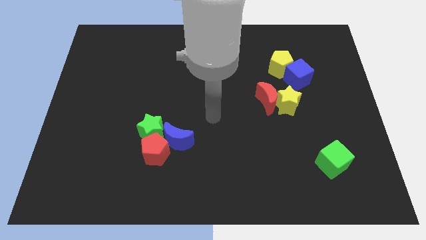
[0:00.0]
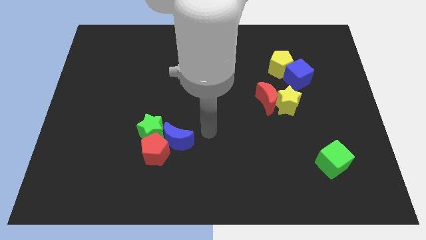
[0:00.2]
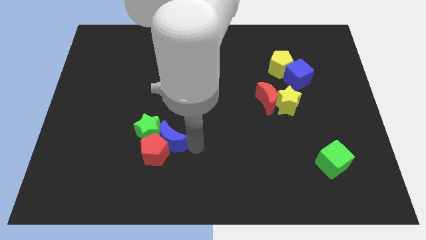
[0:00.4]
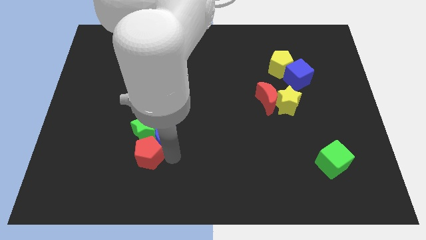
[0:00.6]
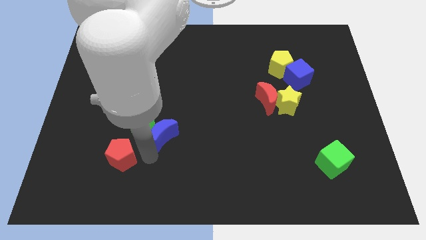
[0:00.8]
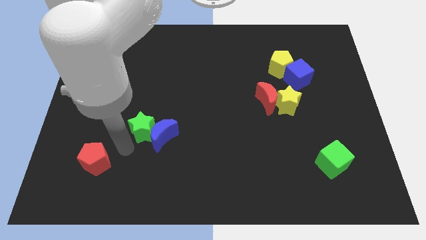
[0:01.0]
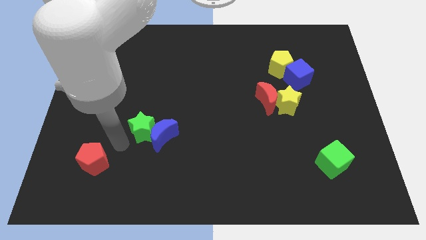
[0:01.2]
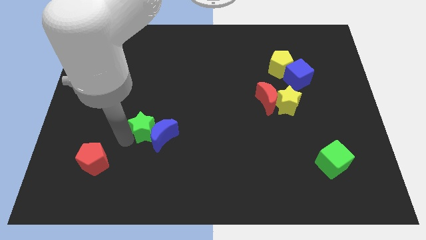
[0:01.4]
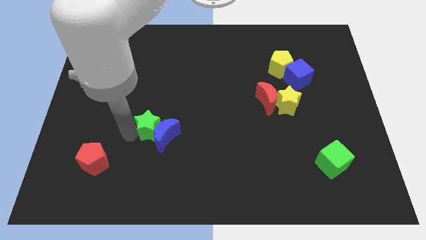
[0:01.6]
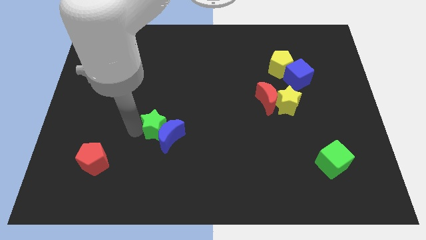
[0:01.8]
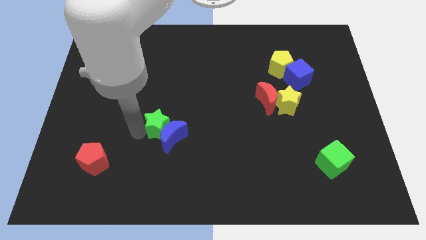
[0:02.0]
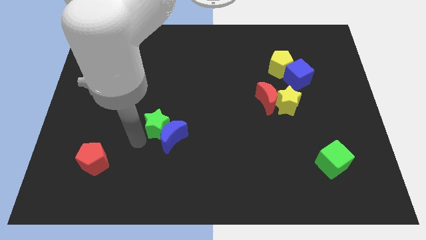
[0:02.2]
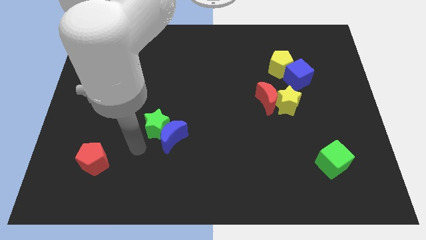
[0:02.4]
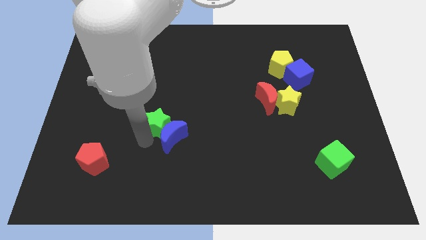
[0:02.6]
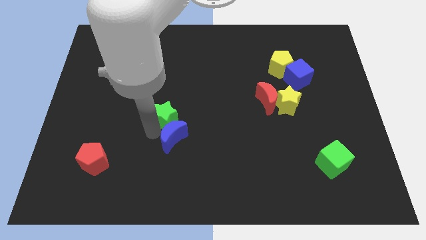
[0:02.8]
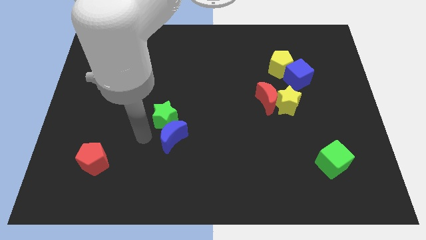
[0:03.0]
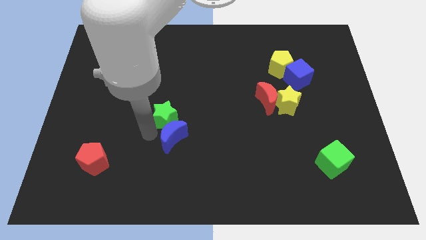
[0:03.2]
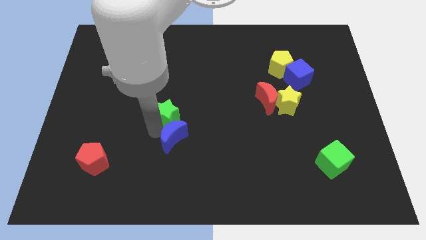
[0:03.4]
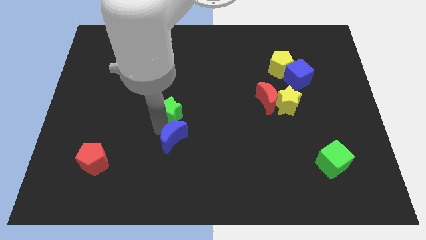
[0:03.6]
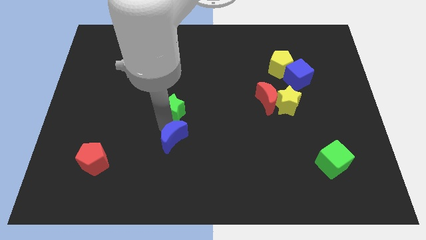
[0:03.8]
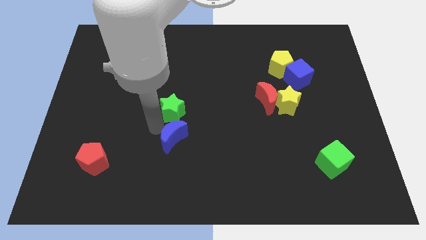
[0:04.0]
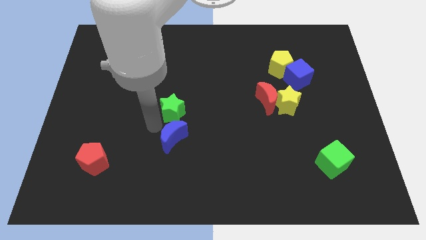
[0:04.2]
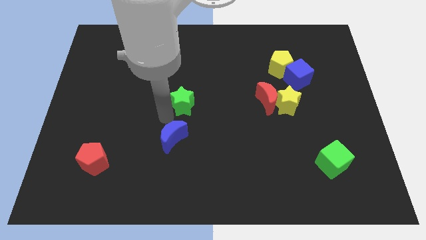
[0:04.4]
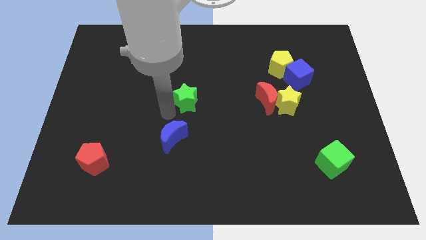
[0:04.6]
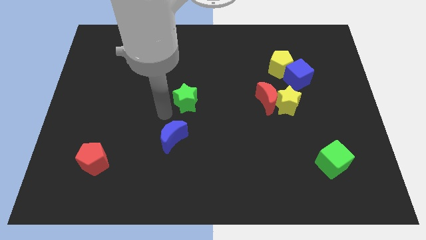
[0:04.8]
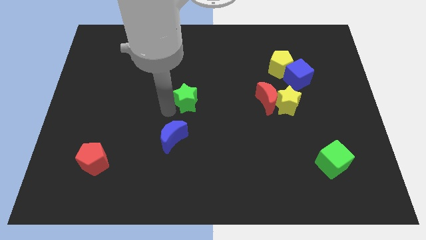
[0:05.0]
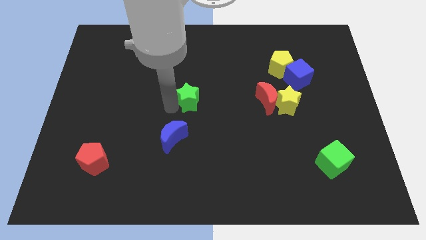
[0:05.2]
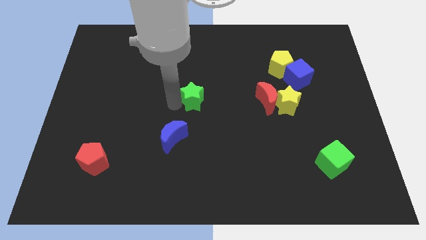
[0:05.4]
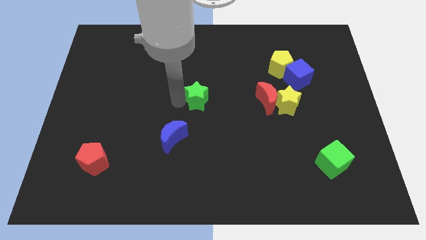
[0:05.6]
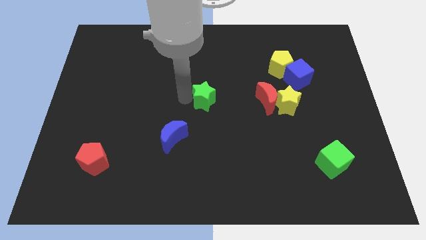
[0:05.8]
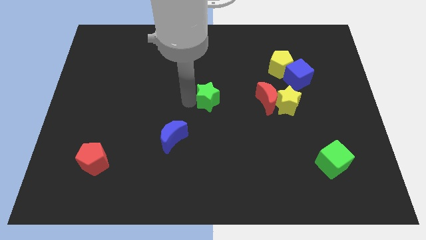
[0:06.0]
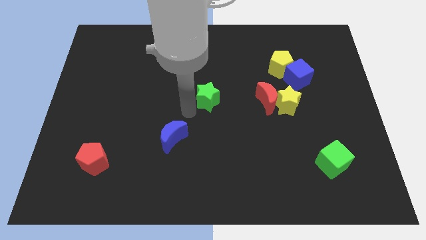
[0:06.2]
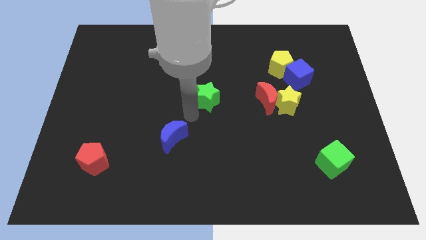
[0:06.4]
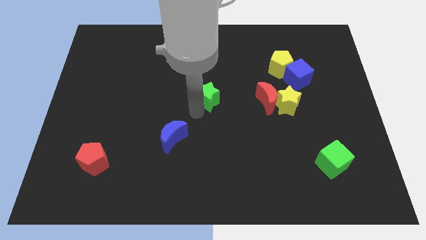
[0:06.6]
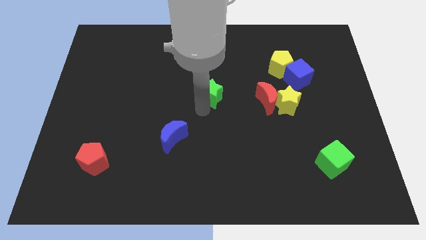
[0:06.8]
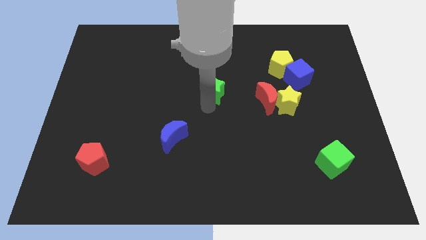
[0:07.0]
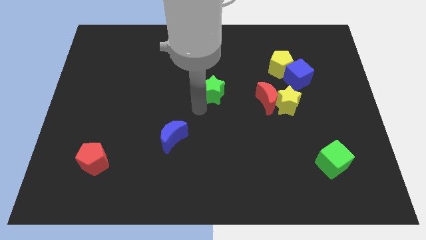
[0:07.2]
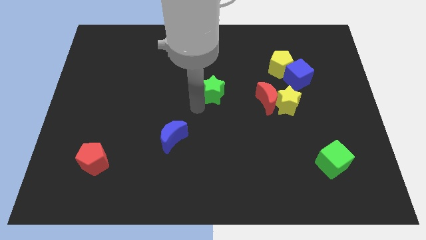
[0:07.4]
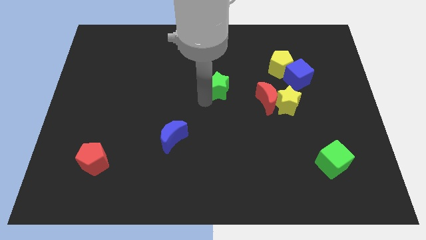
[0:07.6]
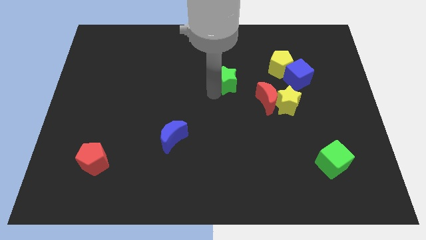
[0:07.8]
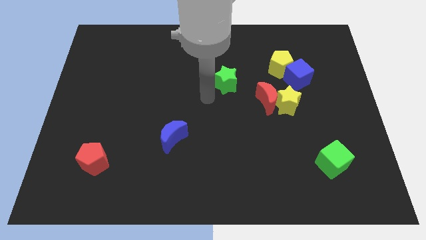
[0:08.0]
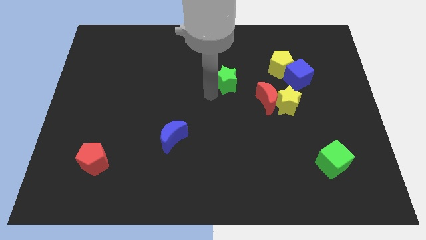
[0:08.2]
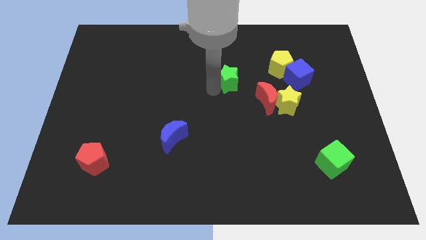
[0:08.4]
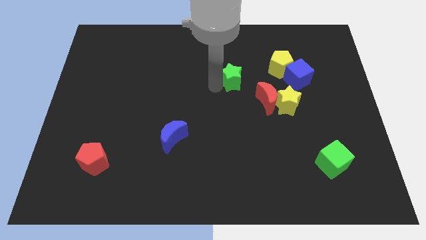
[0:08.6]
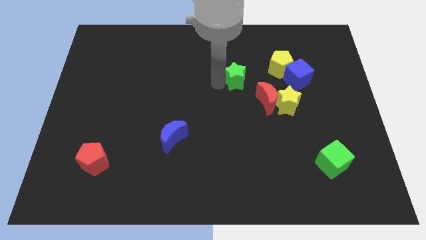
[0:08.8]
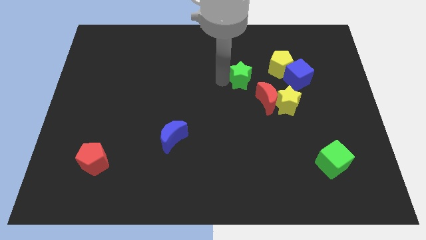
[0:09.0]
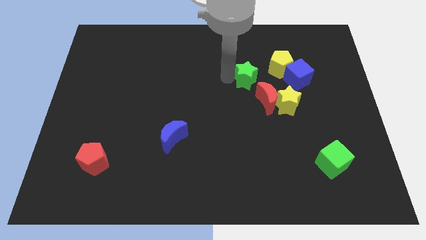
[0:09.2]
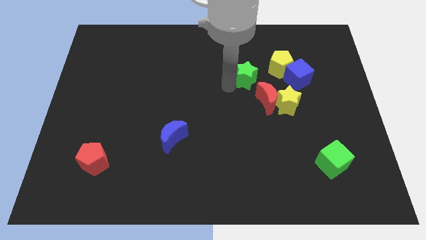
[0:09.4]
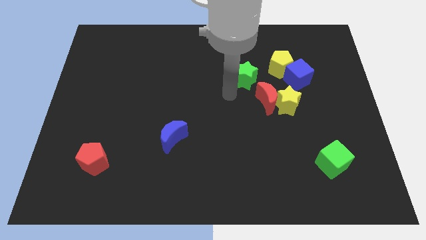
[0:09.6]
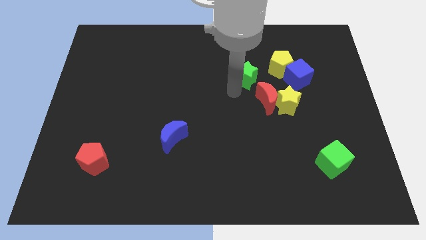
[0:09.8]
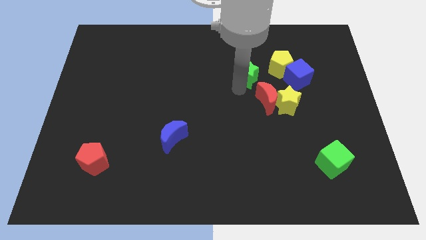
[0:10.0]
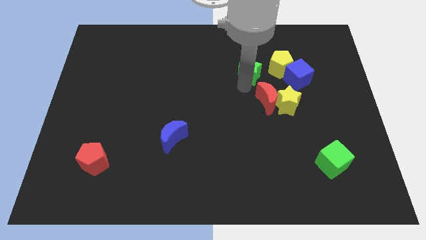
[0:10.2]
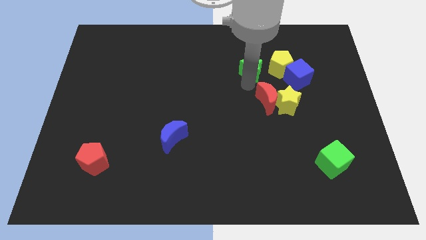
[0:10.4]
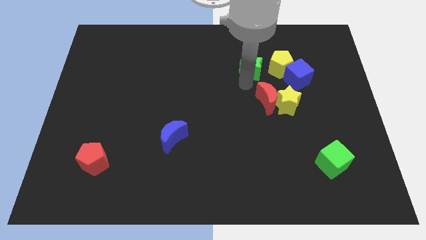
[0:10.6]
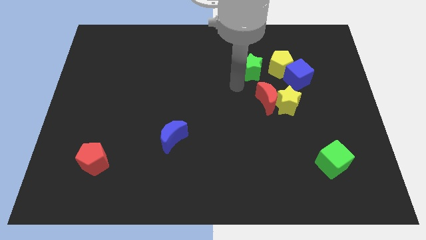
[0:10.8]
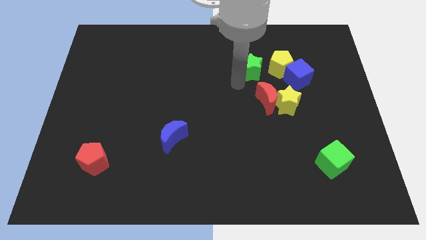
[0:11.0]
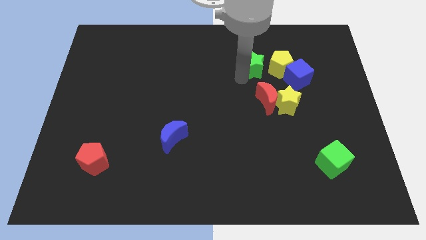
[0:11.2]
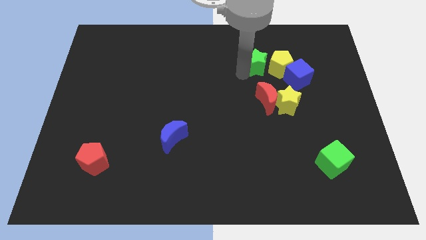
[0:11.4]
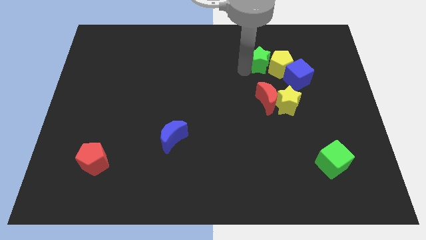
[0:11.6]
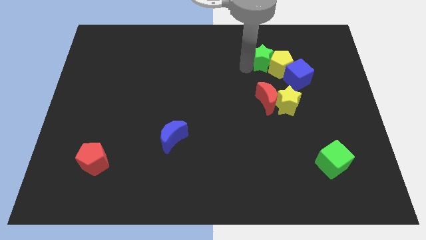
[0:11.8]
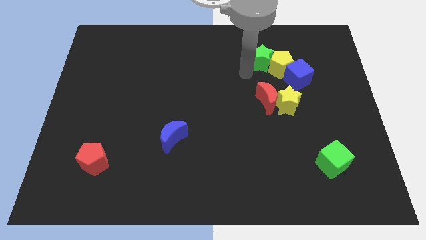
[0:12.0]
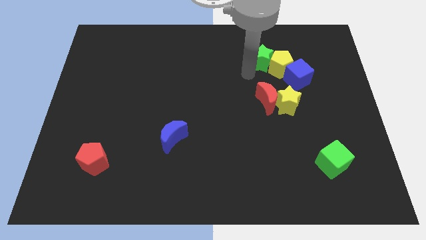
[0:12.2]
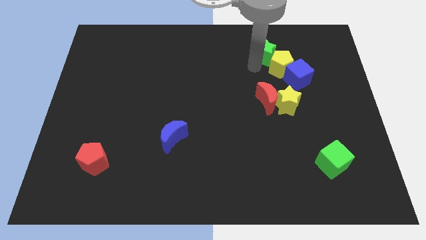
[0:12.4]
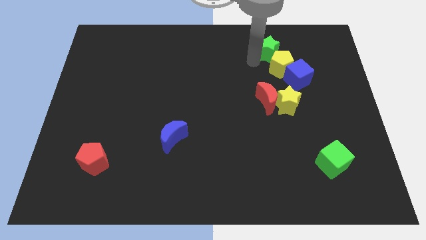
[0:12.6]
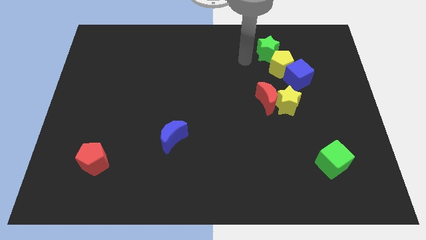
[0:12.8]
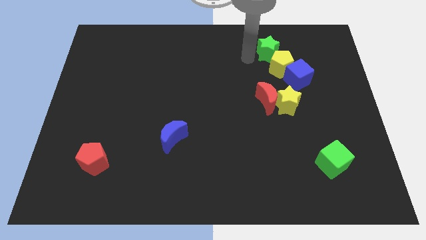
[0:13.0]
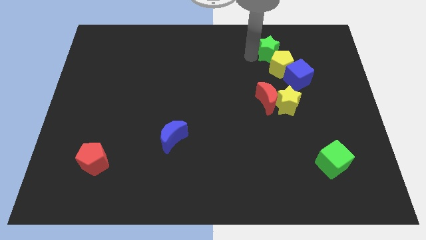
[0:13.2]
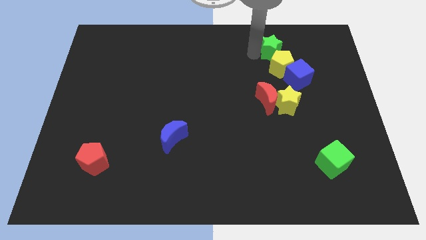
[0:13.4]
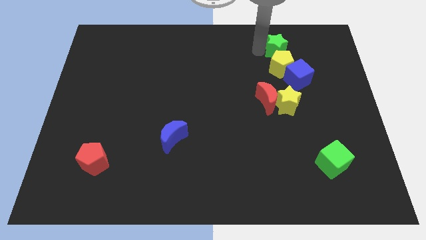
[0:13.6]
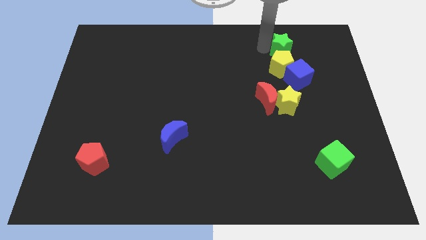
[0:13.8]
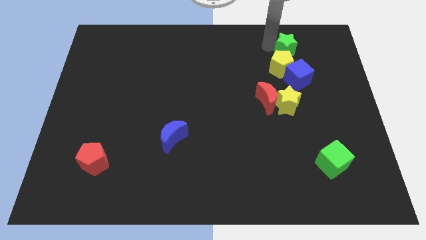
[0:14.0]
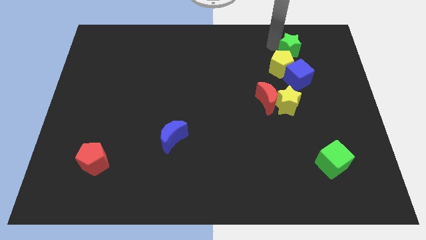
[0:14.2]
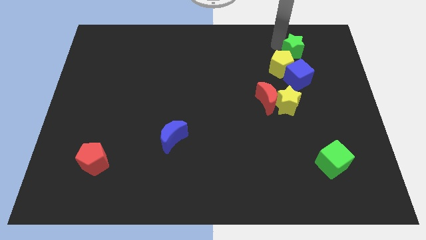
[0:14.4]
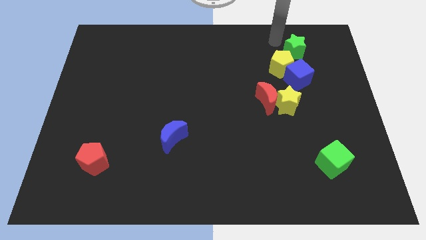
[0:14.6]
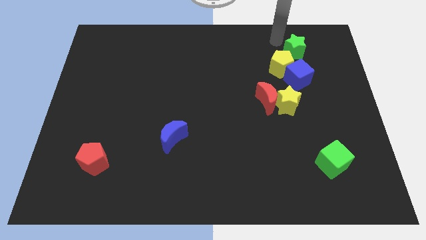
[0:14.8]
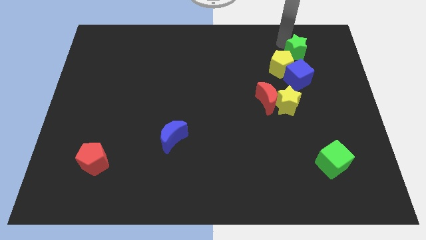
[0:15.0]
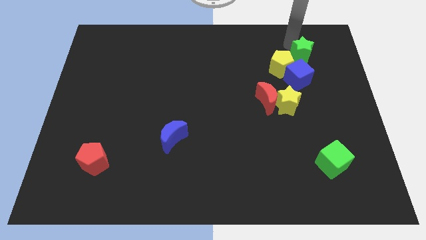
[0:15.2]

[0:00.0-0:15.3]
move the green star right of the yellow pentagon
